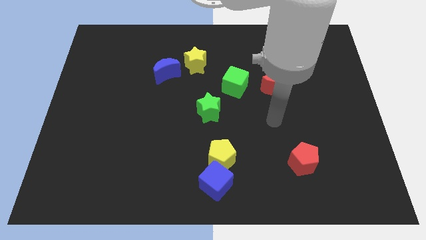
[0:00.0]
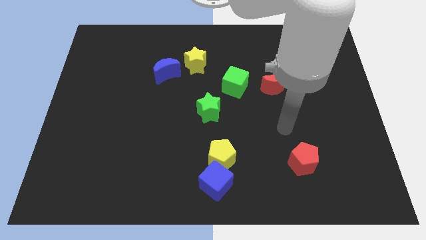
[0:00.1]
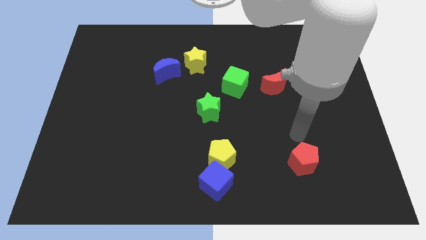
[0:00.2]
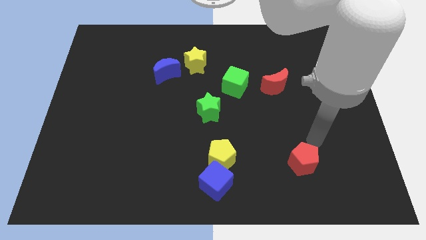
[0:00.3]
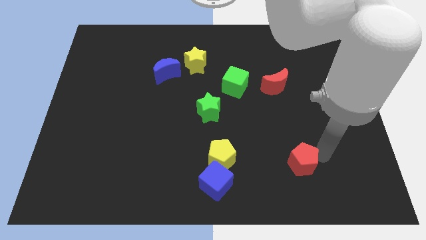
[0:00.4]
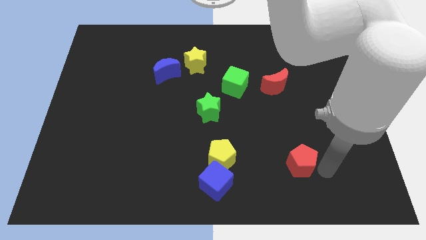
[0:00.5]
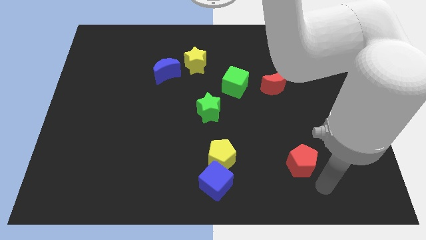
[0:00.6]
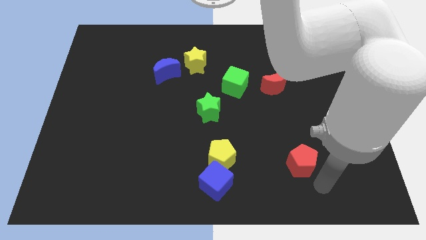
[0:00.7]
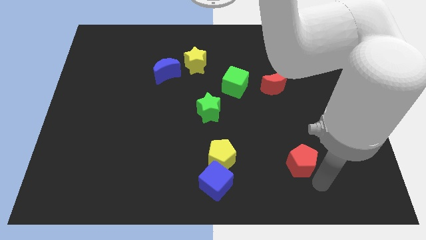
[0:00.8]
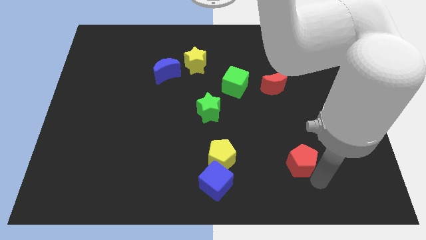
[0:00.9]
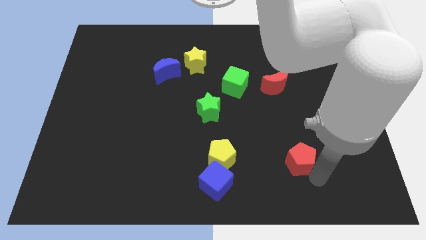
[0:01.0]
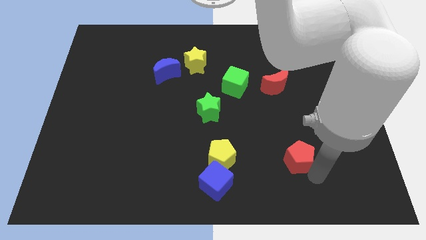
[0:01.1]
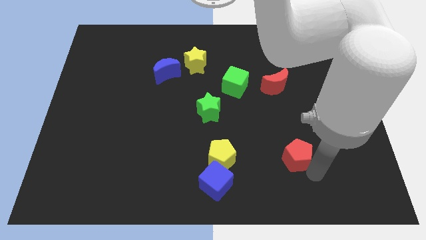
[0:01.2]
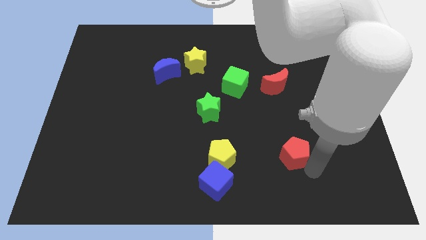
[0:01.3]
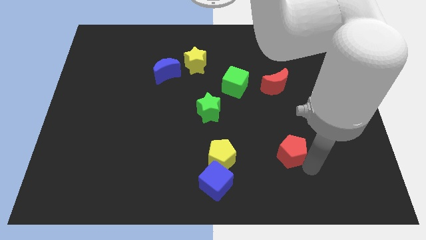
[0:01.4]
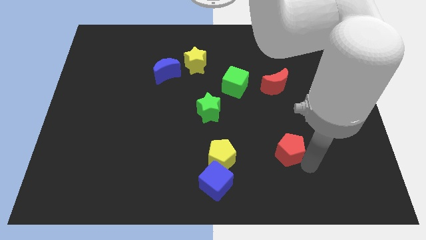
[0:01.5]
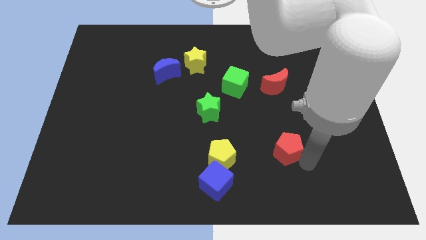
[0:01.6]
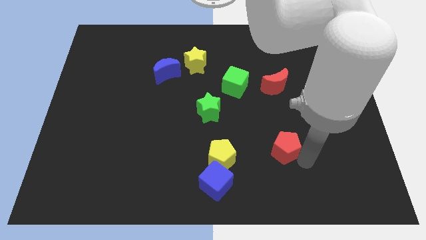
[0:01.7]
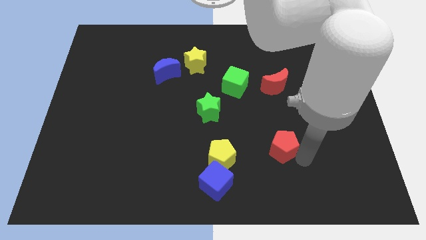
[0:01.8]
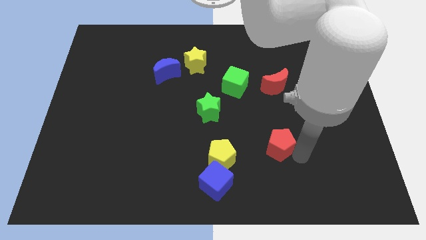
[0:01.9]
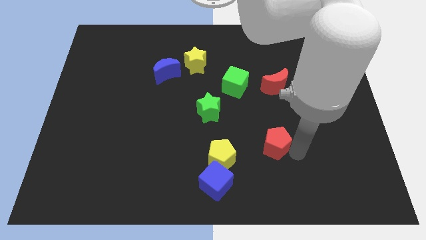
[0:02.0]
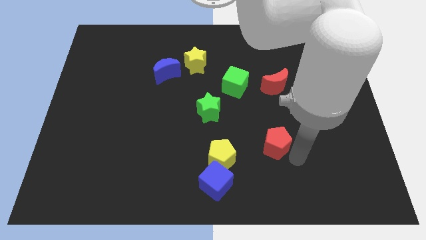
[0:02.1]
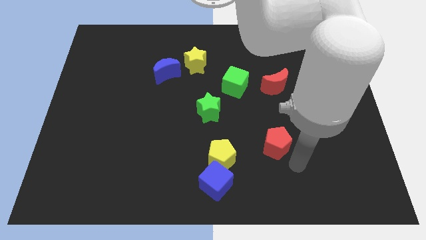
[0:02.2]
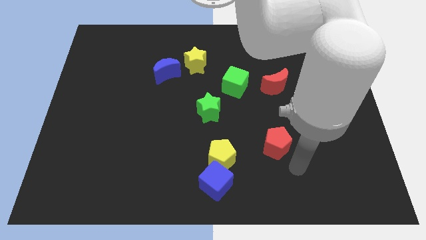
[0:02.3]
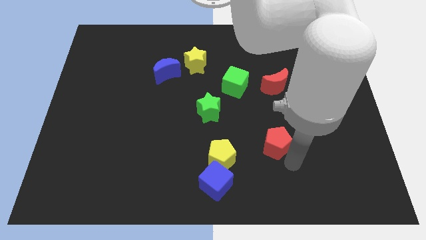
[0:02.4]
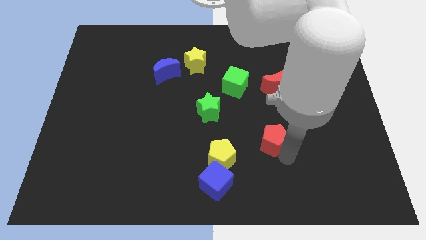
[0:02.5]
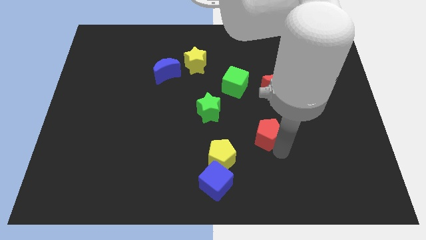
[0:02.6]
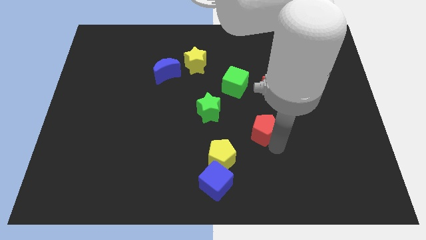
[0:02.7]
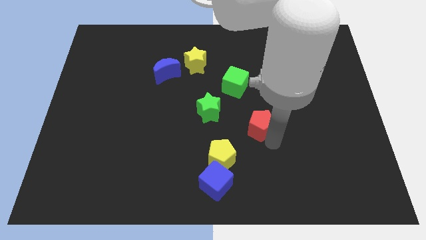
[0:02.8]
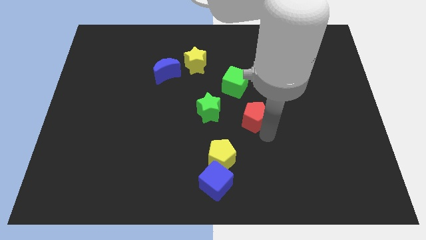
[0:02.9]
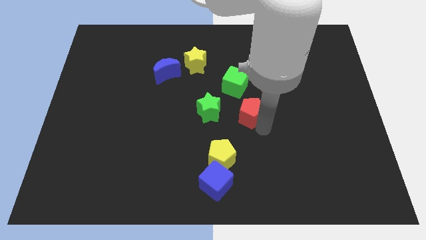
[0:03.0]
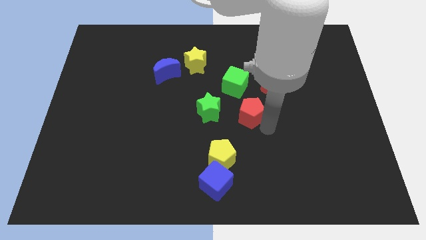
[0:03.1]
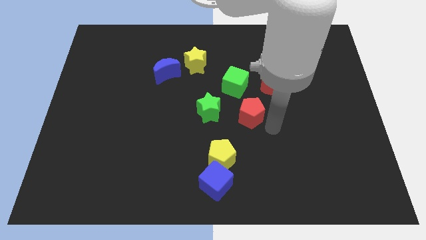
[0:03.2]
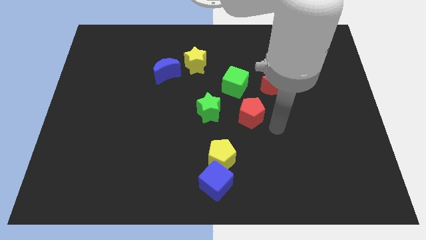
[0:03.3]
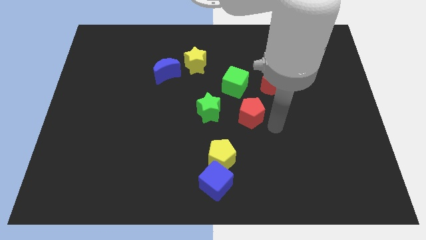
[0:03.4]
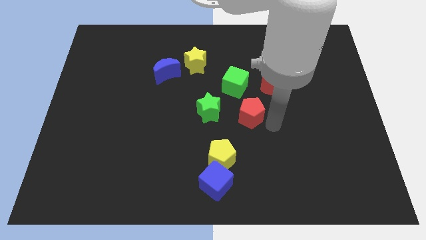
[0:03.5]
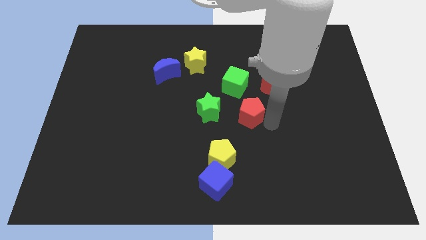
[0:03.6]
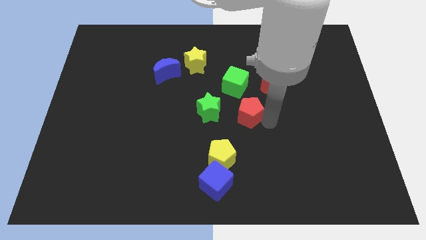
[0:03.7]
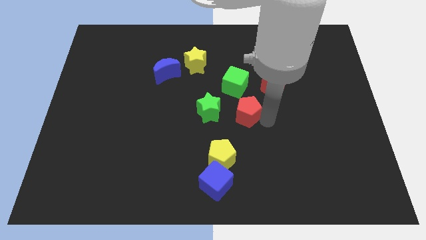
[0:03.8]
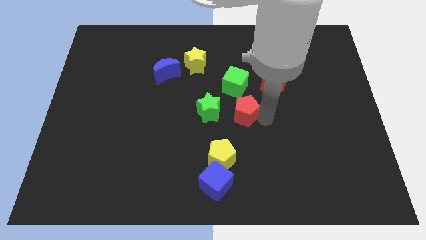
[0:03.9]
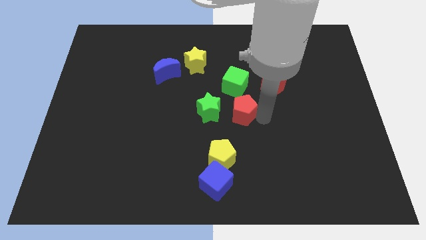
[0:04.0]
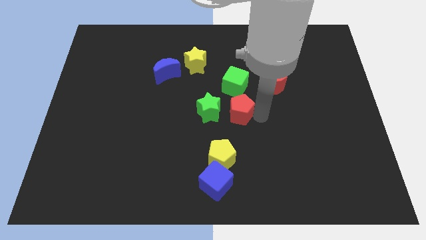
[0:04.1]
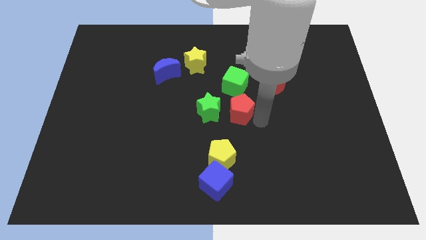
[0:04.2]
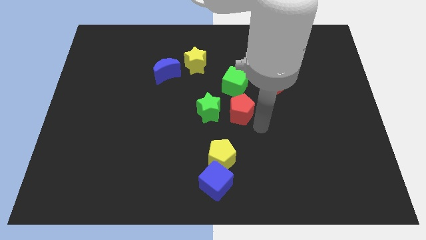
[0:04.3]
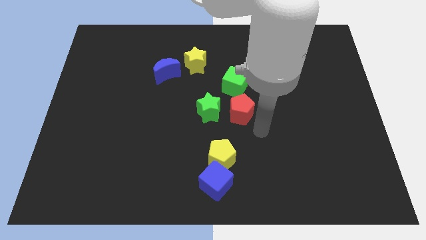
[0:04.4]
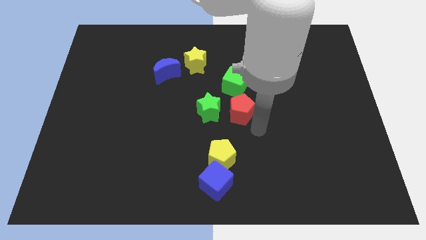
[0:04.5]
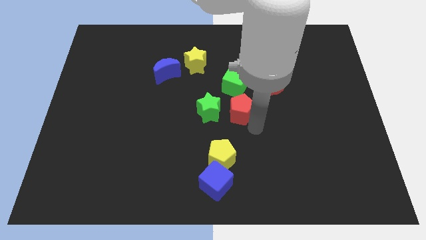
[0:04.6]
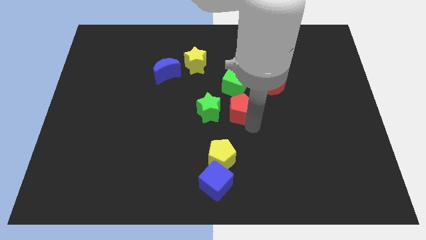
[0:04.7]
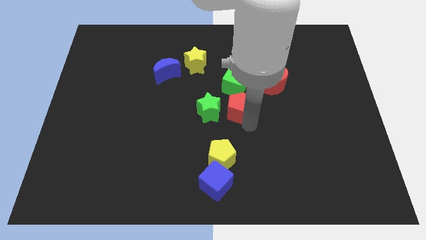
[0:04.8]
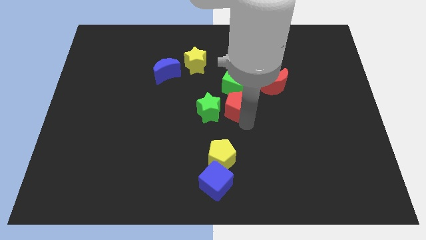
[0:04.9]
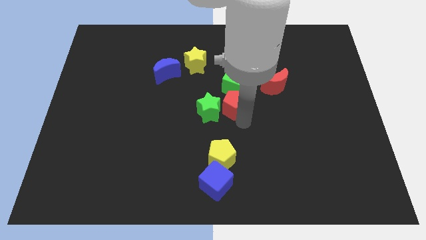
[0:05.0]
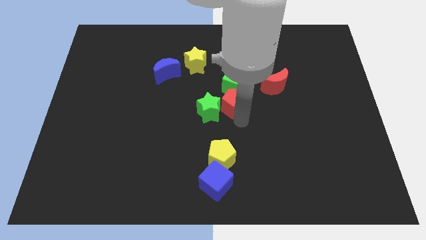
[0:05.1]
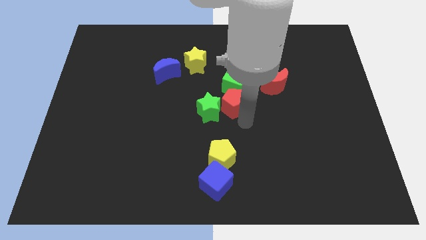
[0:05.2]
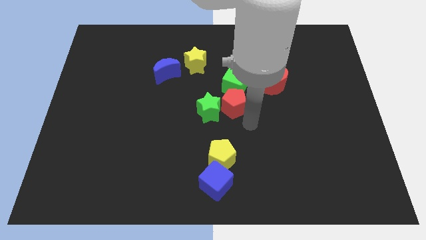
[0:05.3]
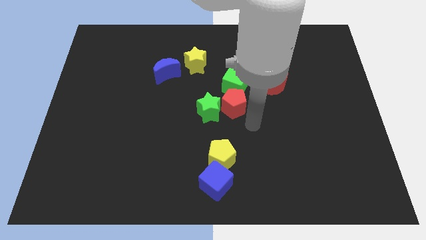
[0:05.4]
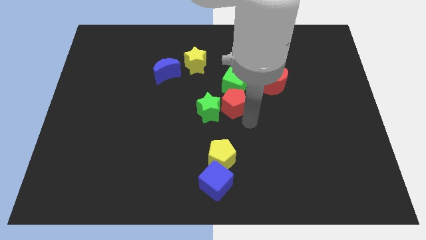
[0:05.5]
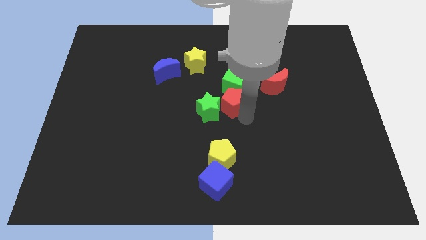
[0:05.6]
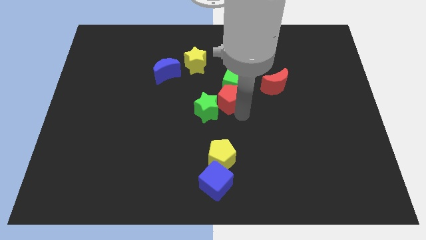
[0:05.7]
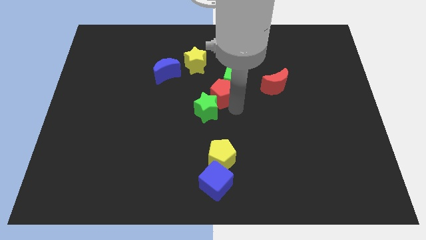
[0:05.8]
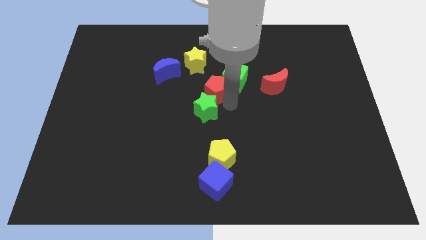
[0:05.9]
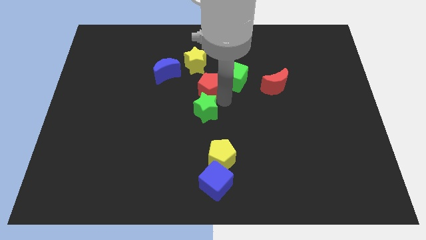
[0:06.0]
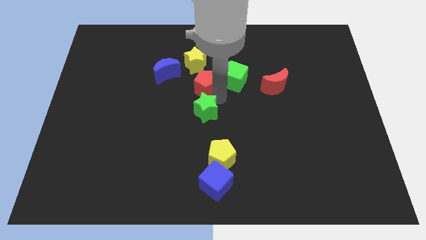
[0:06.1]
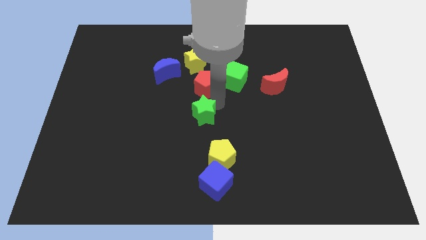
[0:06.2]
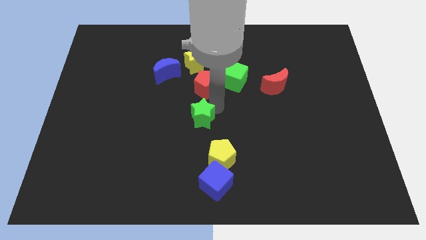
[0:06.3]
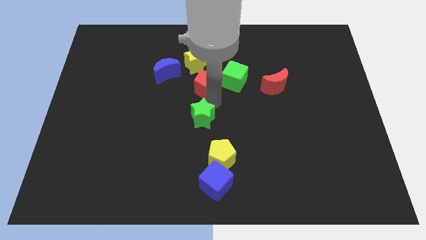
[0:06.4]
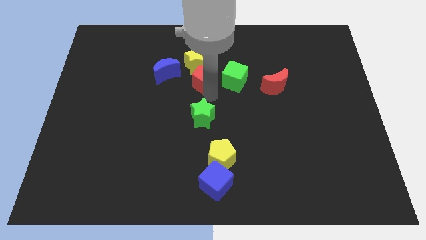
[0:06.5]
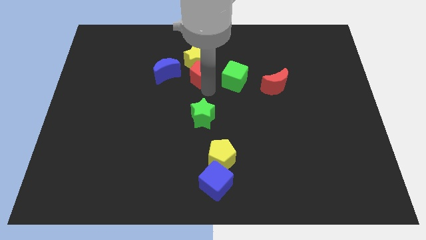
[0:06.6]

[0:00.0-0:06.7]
slide the red pentagon close to the yellow star

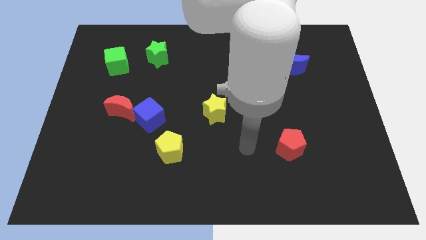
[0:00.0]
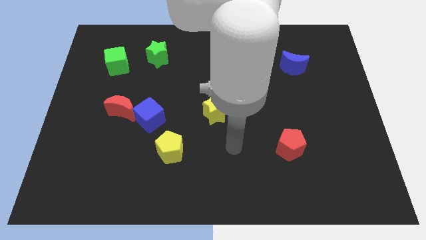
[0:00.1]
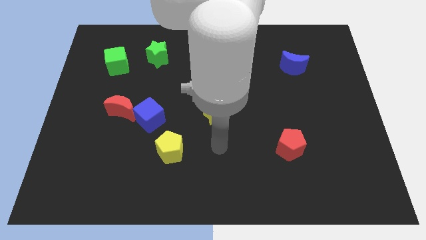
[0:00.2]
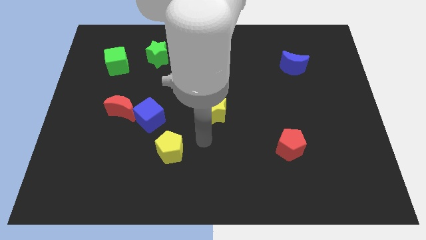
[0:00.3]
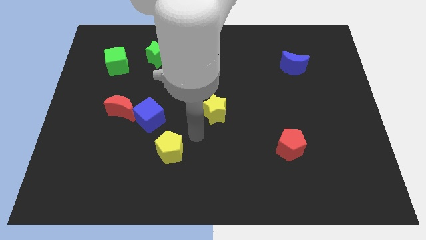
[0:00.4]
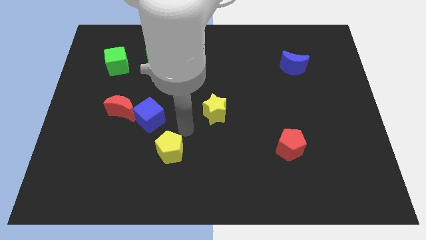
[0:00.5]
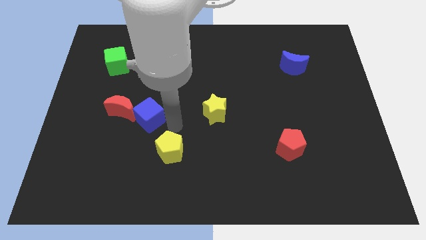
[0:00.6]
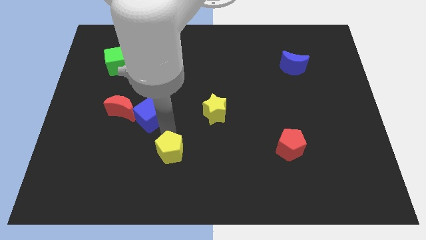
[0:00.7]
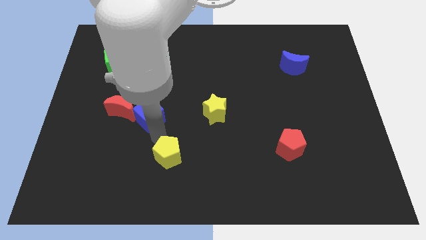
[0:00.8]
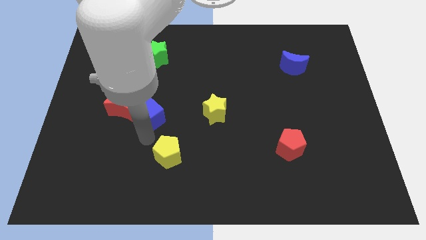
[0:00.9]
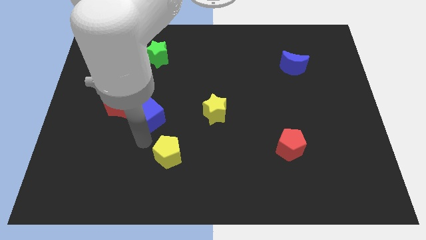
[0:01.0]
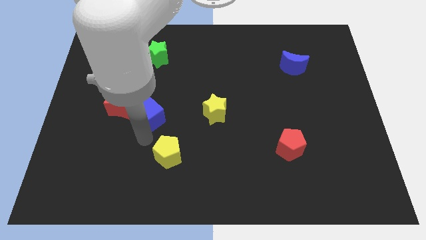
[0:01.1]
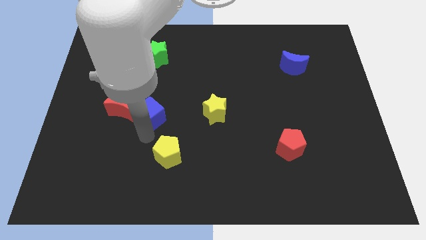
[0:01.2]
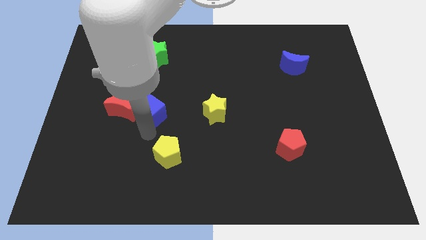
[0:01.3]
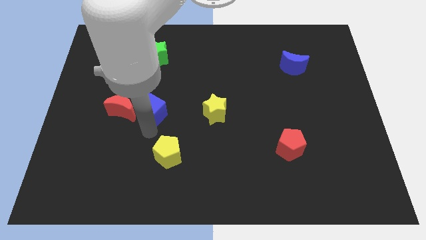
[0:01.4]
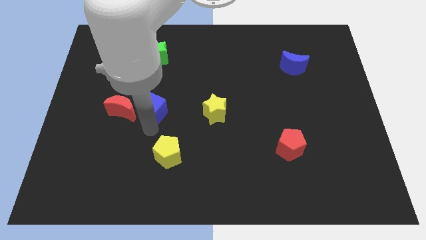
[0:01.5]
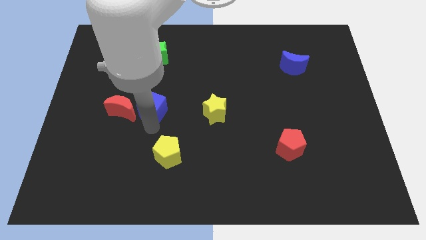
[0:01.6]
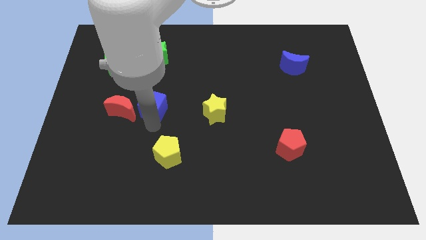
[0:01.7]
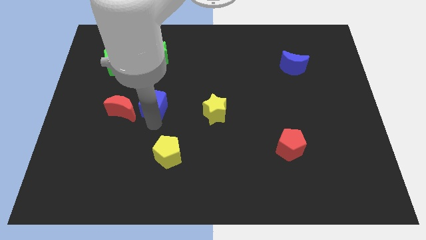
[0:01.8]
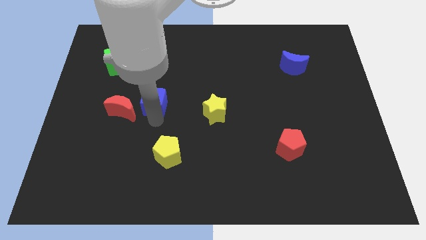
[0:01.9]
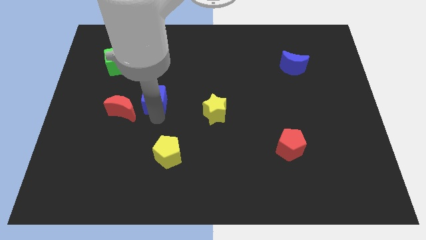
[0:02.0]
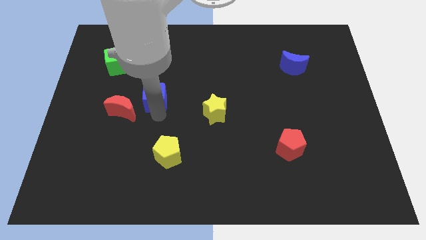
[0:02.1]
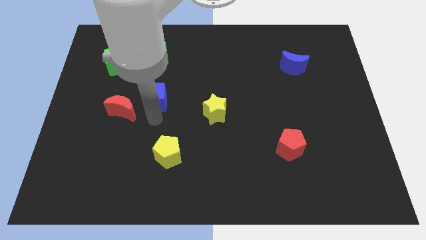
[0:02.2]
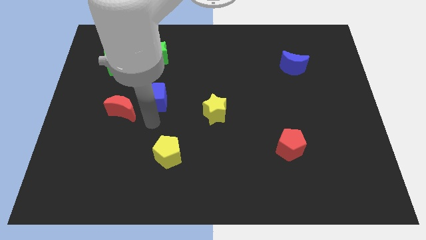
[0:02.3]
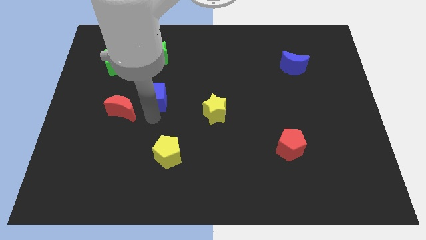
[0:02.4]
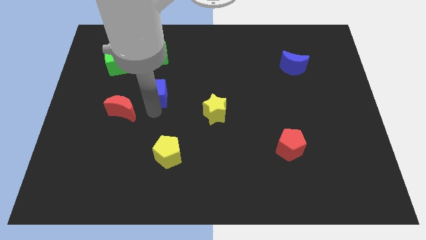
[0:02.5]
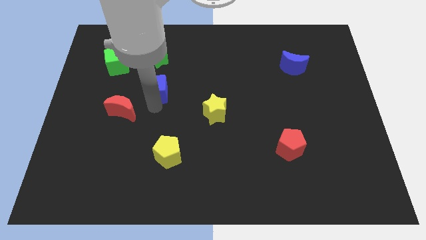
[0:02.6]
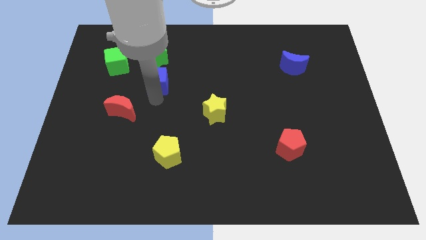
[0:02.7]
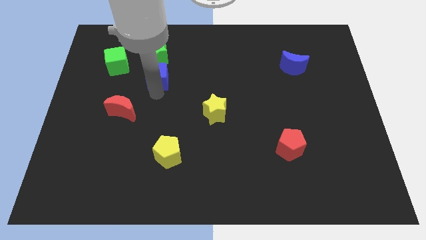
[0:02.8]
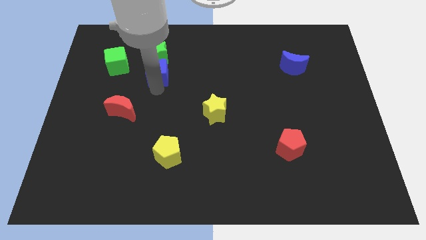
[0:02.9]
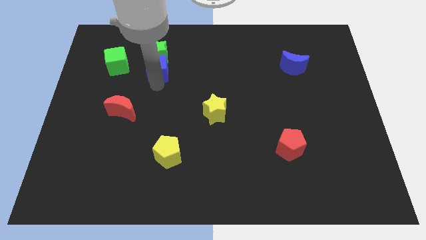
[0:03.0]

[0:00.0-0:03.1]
push the blue cube towards the green star
